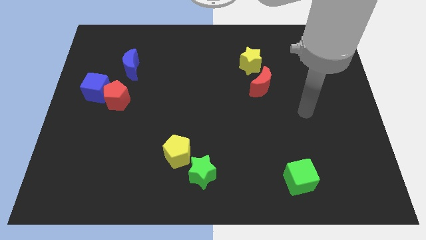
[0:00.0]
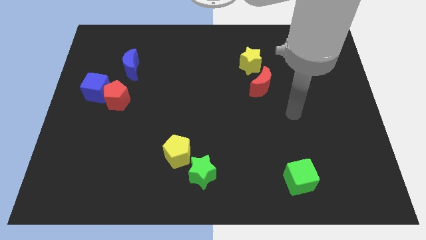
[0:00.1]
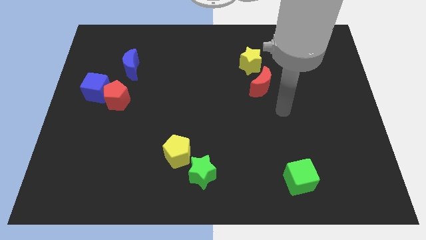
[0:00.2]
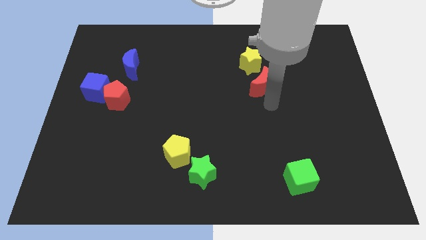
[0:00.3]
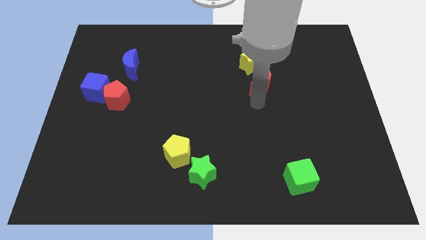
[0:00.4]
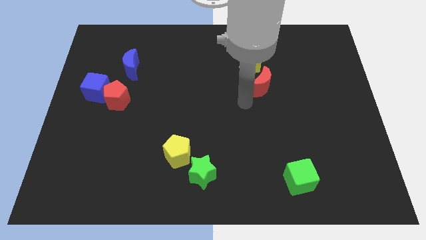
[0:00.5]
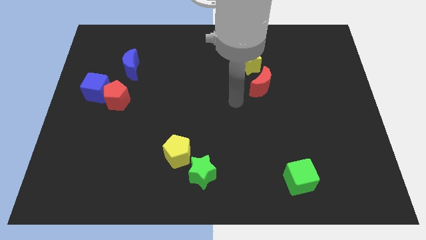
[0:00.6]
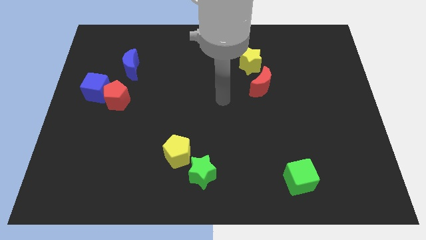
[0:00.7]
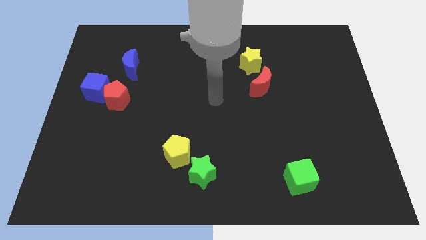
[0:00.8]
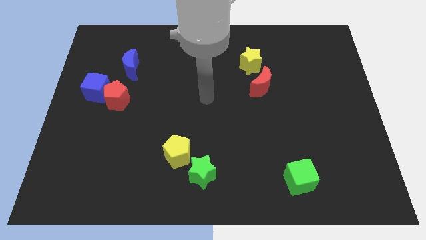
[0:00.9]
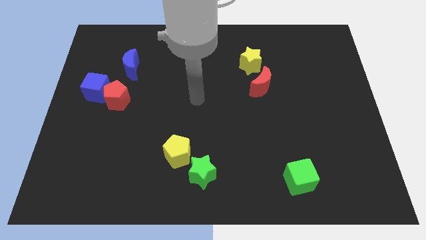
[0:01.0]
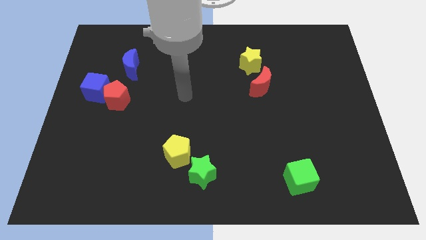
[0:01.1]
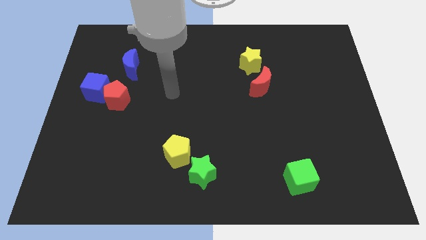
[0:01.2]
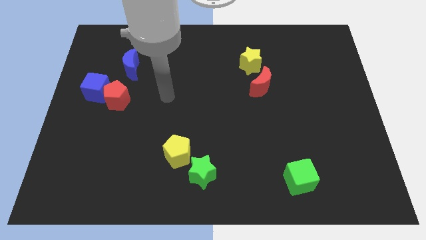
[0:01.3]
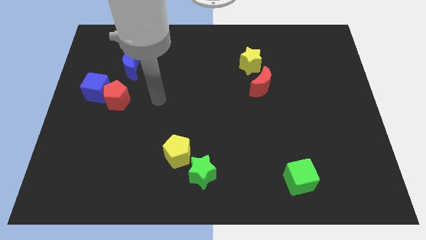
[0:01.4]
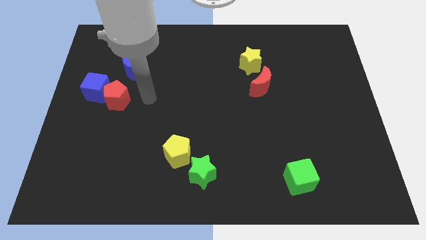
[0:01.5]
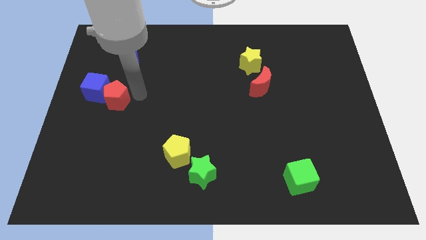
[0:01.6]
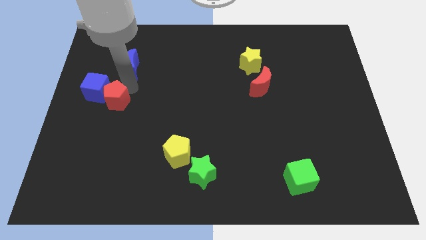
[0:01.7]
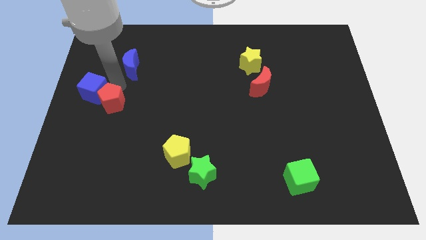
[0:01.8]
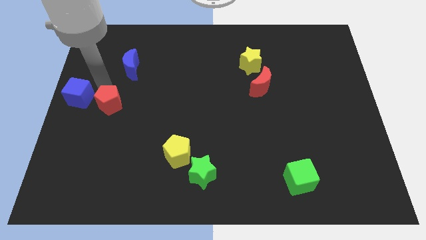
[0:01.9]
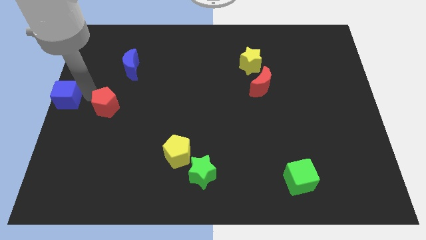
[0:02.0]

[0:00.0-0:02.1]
separate the red pentagon from the blue cube

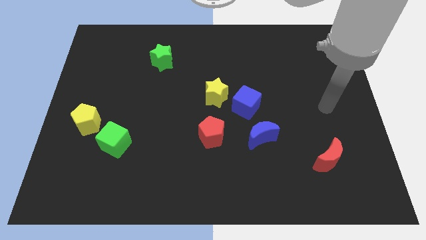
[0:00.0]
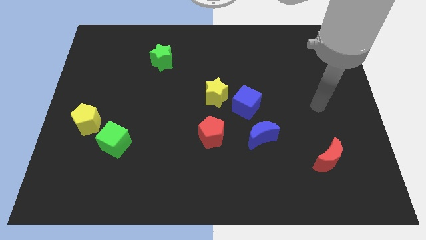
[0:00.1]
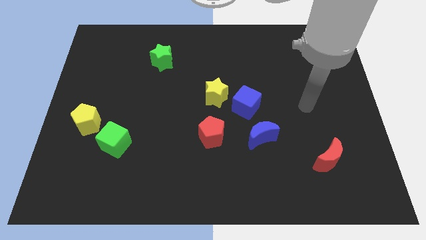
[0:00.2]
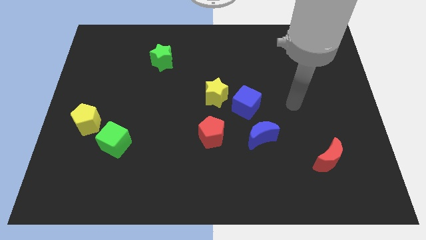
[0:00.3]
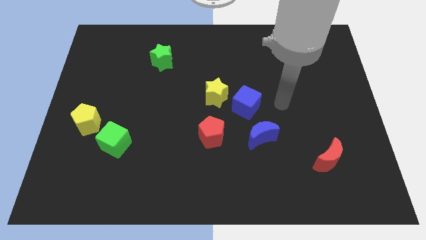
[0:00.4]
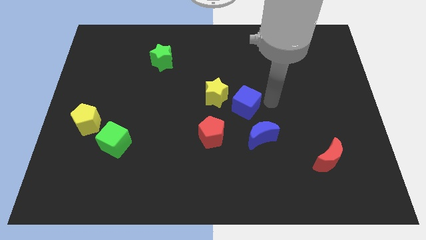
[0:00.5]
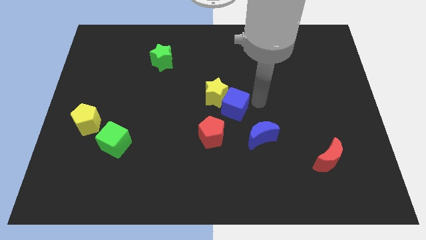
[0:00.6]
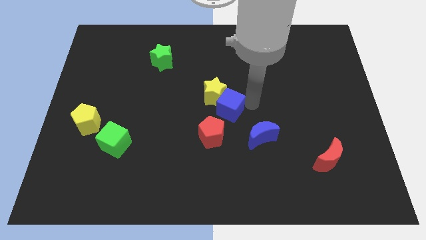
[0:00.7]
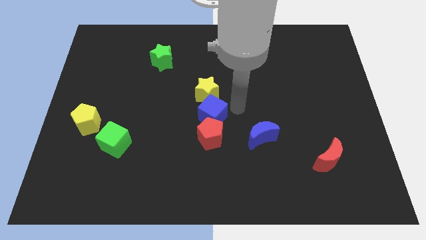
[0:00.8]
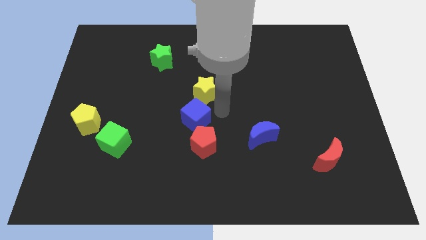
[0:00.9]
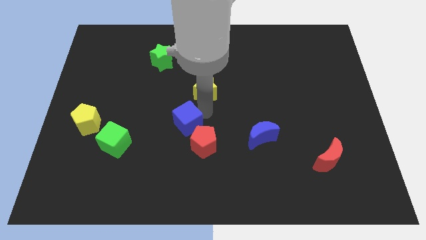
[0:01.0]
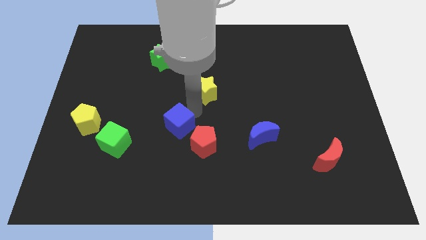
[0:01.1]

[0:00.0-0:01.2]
move the yellow star away from the blue cube

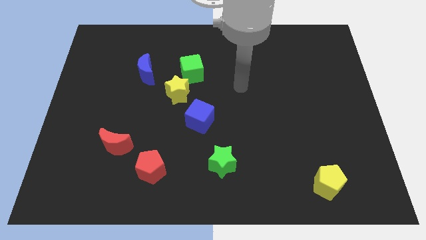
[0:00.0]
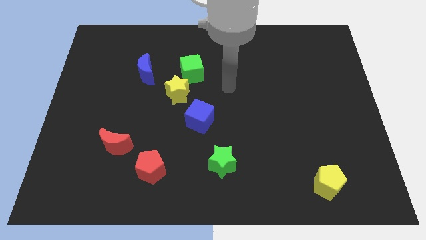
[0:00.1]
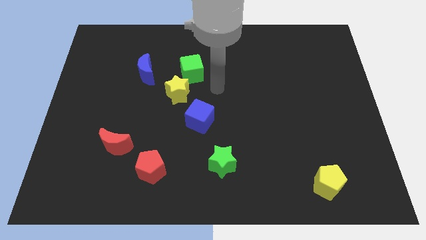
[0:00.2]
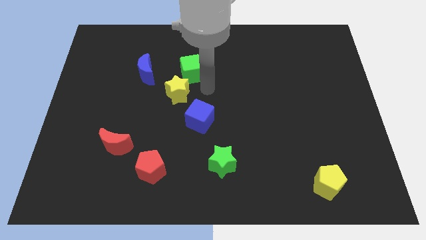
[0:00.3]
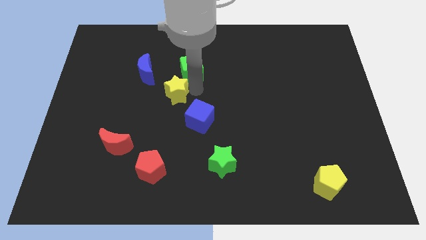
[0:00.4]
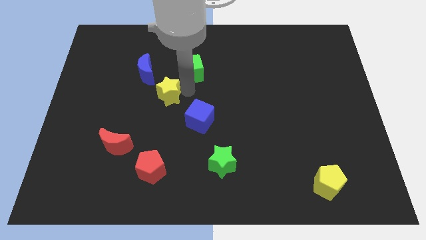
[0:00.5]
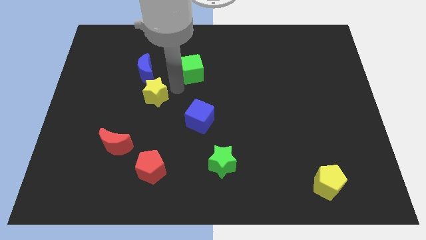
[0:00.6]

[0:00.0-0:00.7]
pull the green cube apart from the yellow star

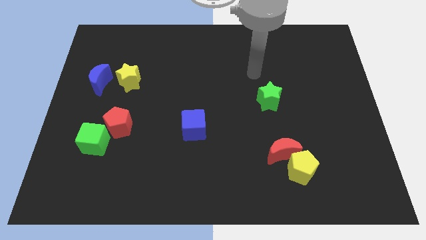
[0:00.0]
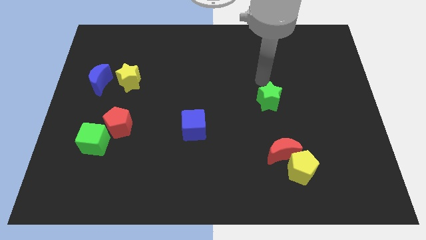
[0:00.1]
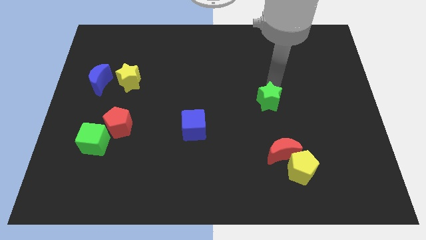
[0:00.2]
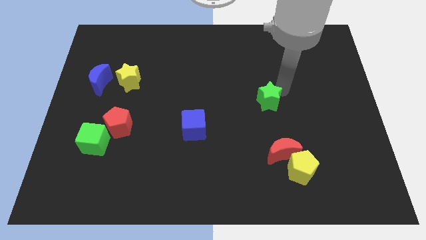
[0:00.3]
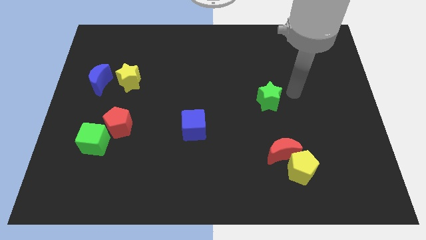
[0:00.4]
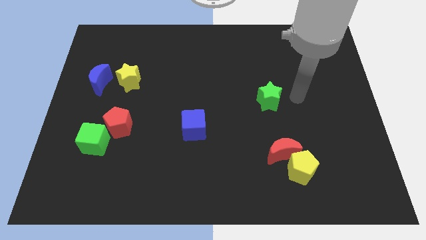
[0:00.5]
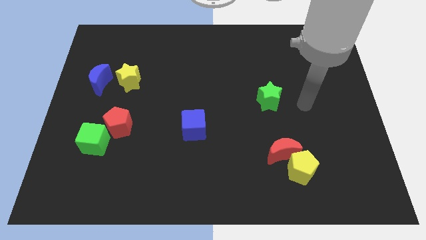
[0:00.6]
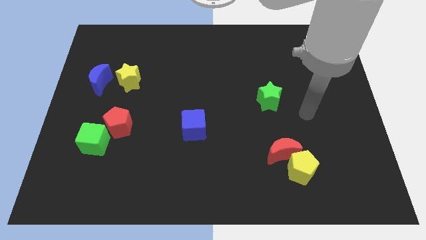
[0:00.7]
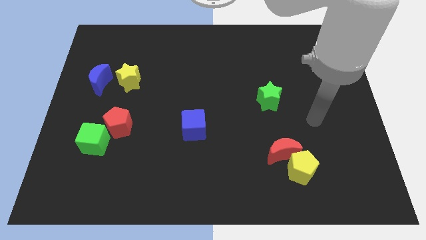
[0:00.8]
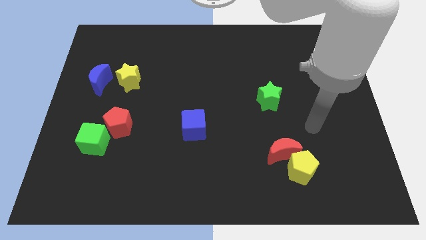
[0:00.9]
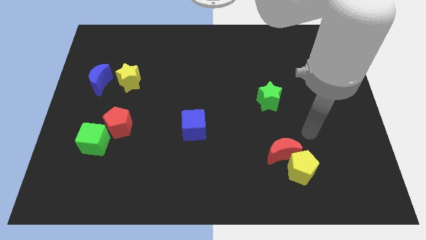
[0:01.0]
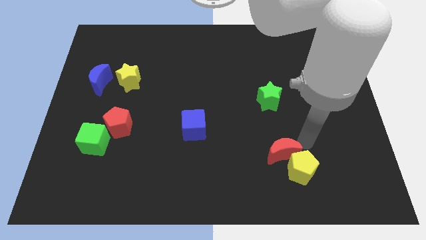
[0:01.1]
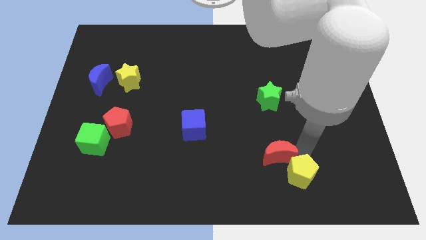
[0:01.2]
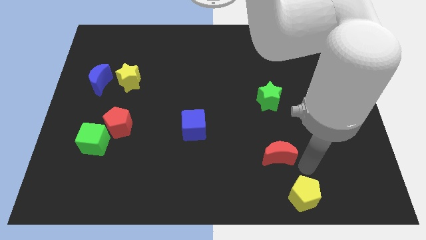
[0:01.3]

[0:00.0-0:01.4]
move the red moon away from the yellow pentagon

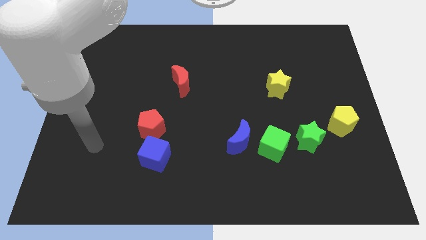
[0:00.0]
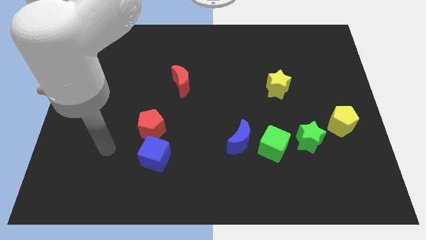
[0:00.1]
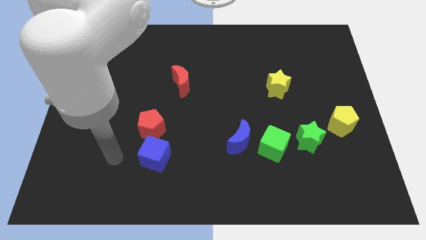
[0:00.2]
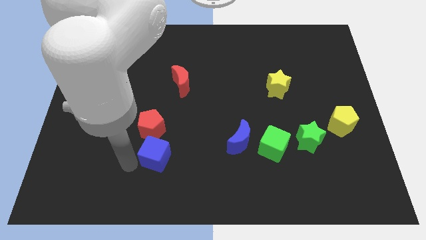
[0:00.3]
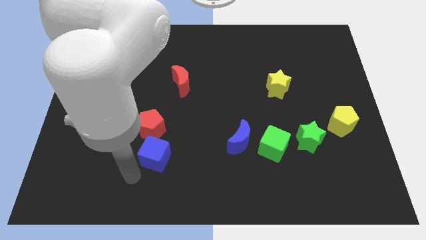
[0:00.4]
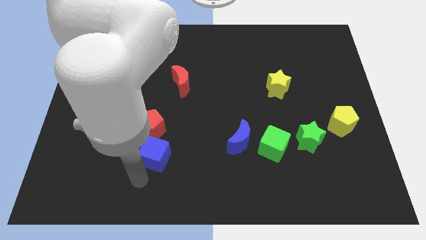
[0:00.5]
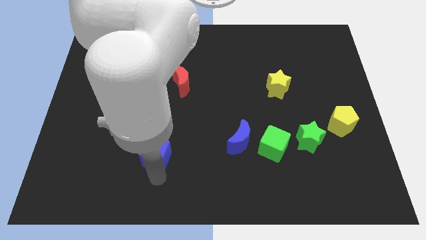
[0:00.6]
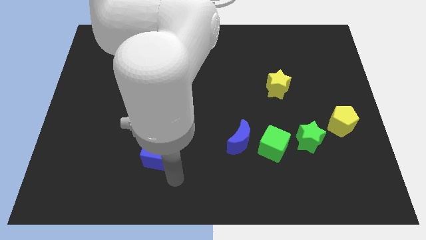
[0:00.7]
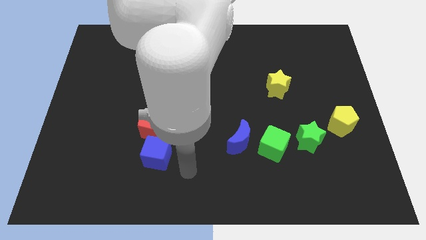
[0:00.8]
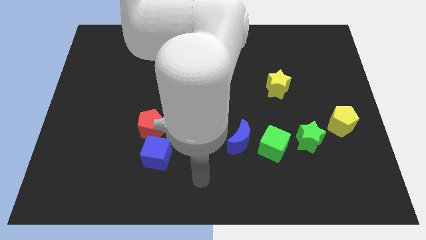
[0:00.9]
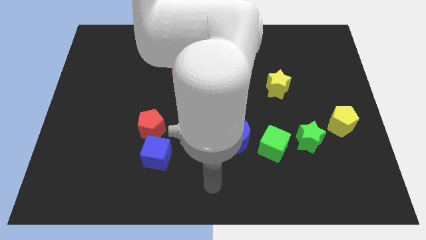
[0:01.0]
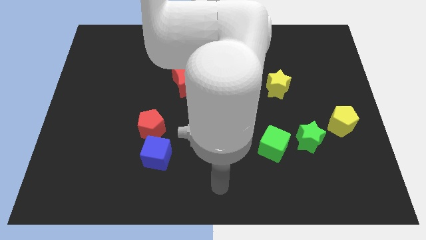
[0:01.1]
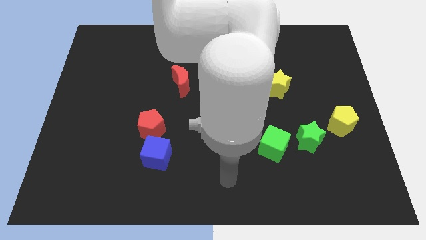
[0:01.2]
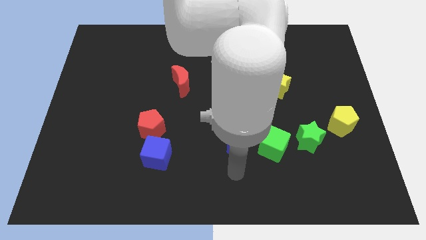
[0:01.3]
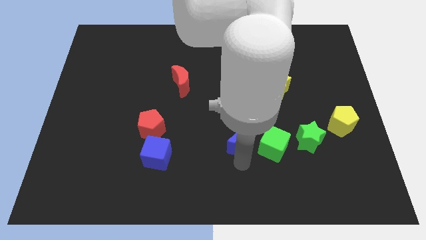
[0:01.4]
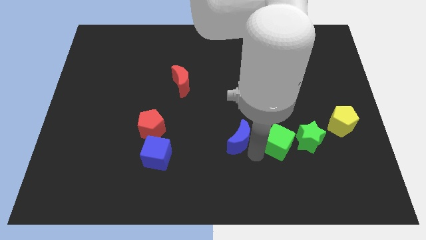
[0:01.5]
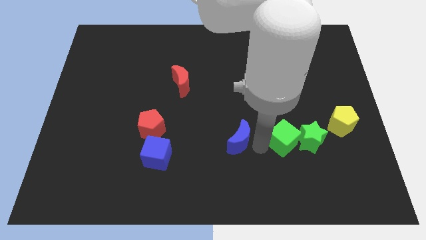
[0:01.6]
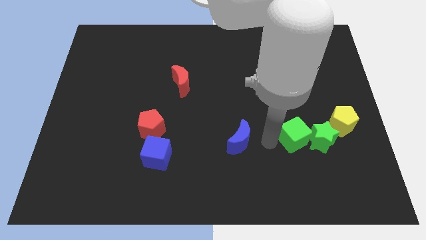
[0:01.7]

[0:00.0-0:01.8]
pull the blue moon apart from the green cube

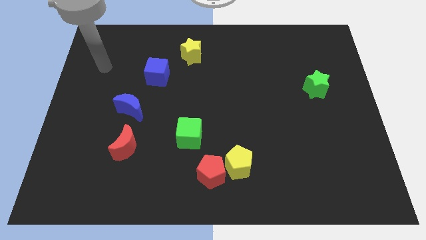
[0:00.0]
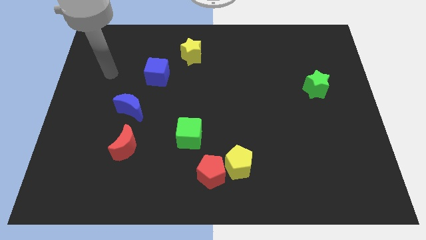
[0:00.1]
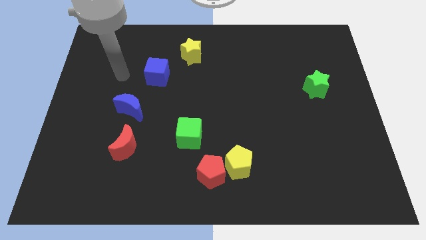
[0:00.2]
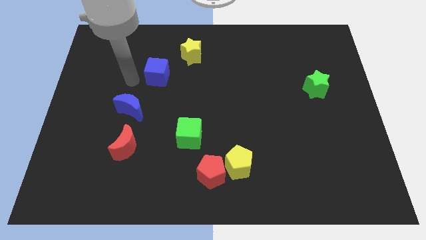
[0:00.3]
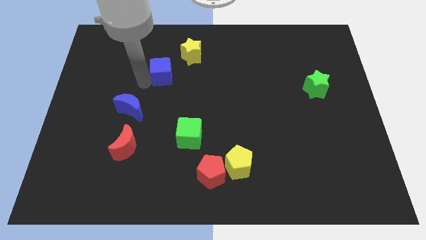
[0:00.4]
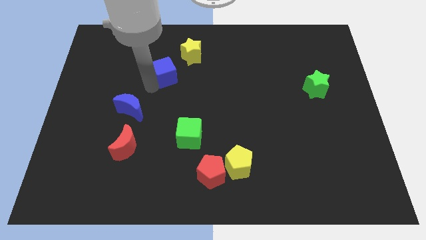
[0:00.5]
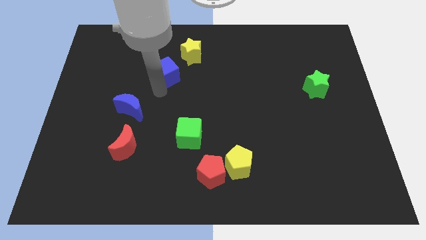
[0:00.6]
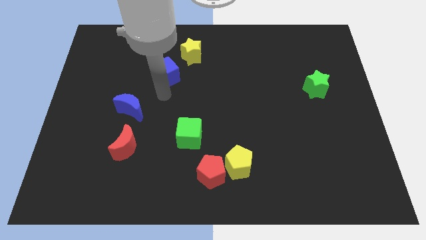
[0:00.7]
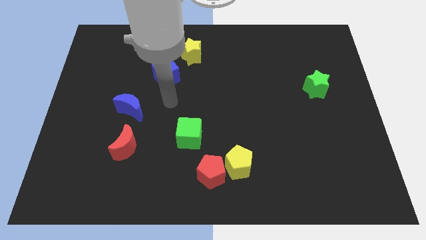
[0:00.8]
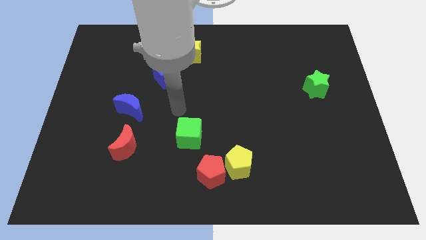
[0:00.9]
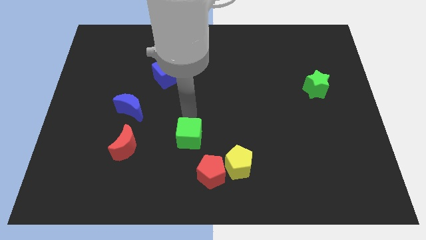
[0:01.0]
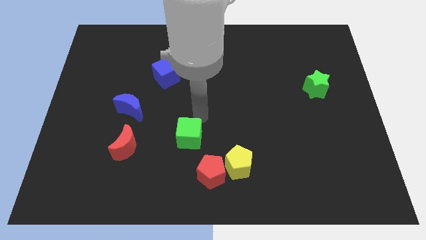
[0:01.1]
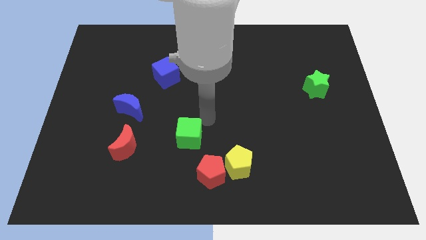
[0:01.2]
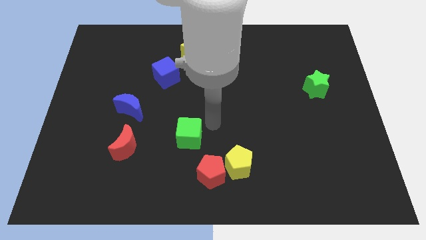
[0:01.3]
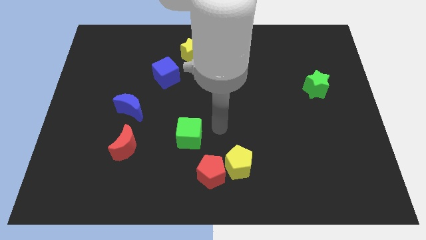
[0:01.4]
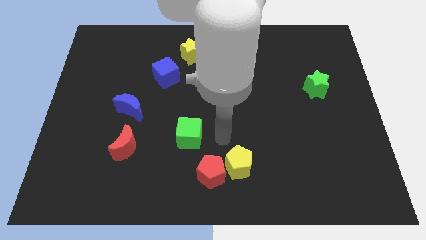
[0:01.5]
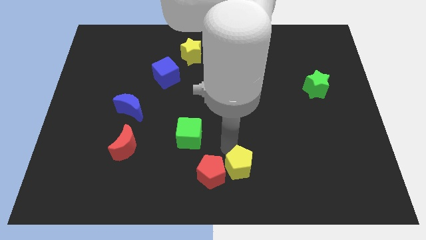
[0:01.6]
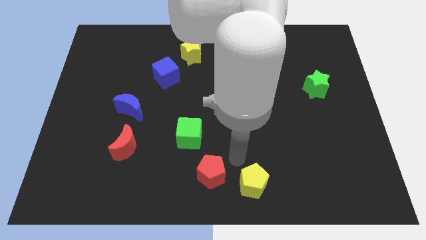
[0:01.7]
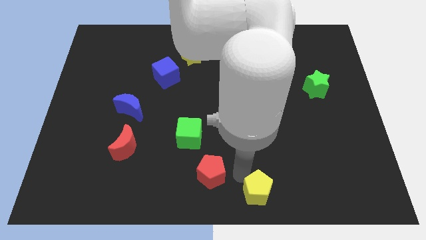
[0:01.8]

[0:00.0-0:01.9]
pull the red pentagon apart from the yellow pentagon
